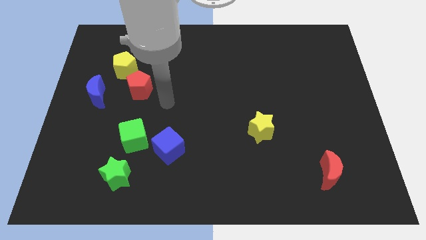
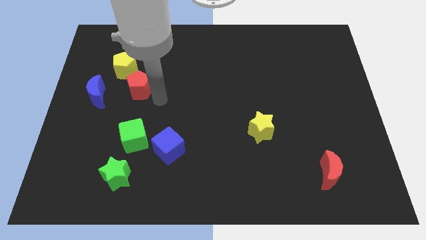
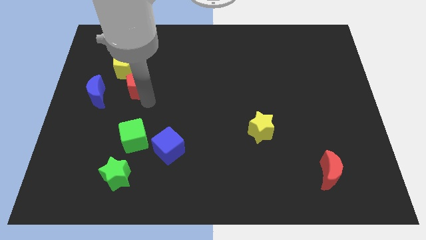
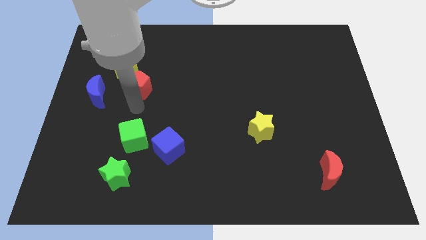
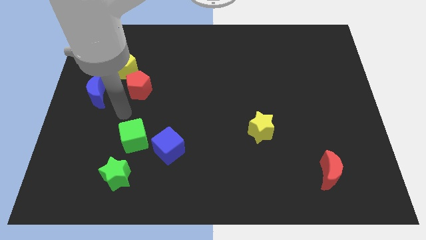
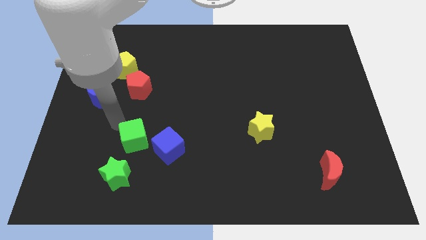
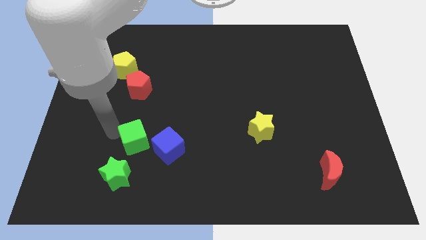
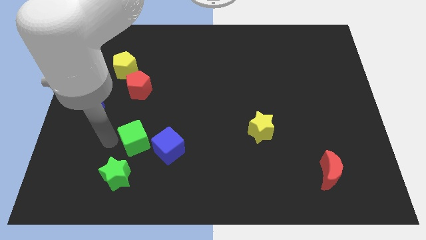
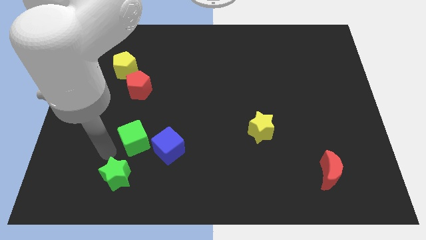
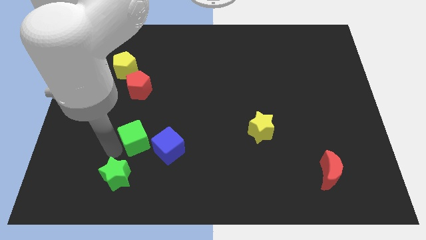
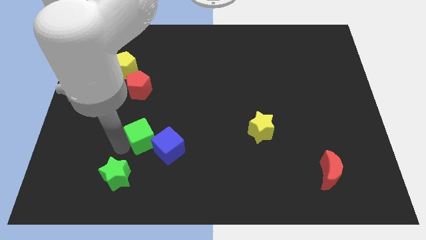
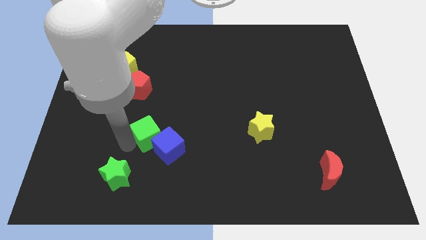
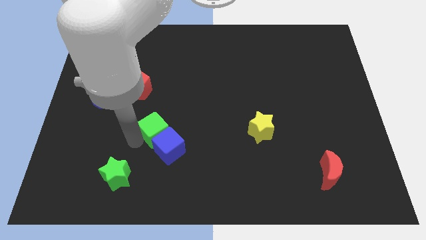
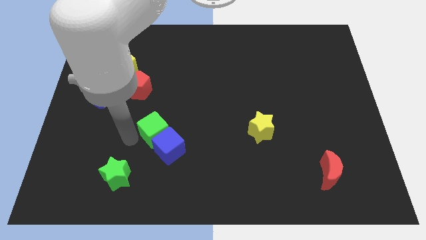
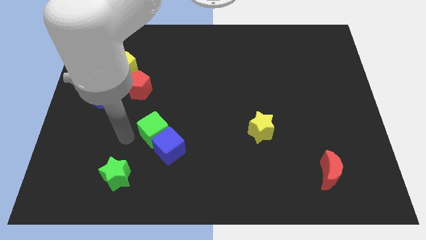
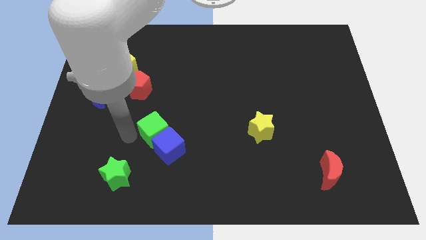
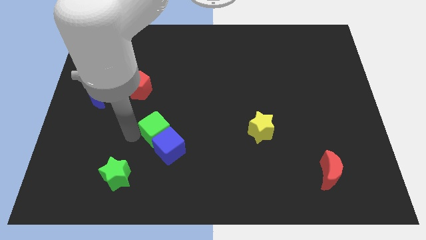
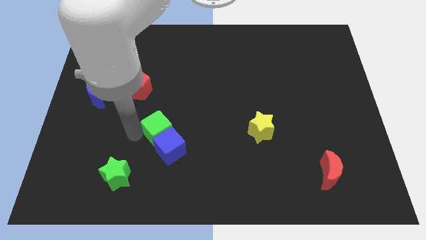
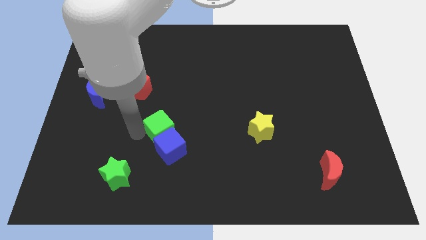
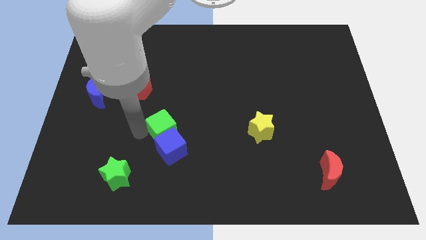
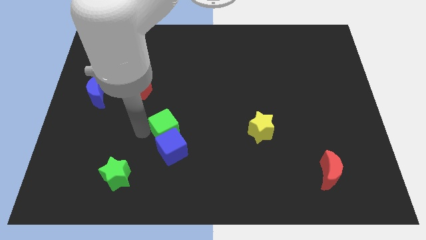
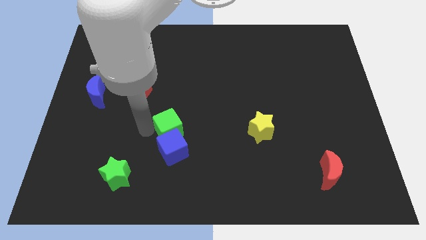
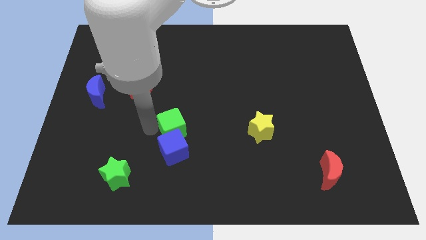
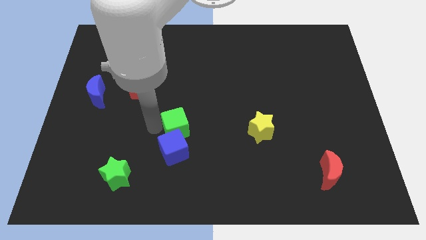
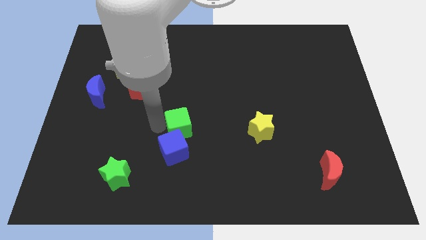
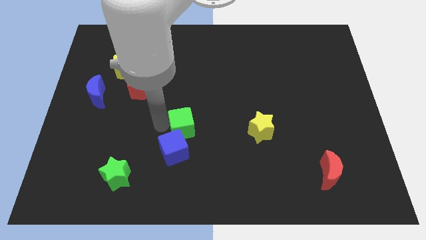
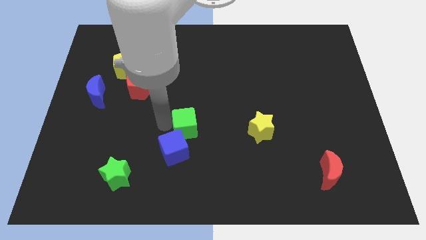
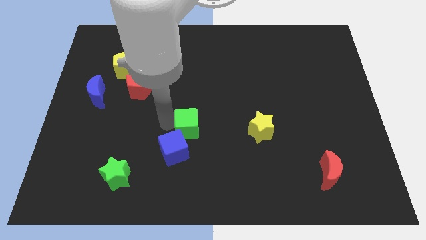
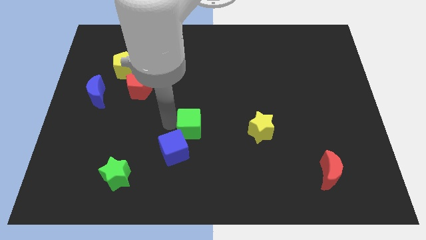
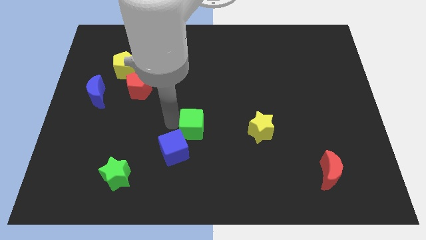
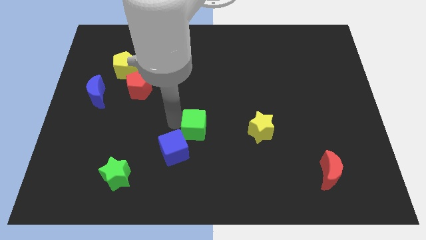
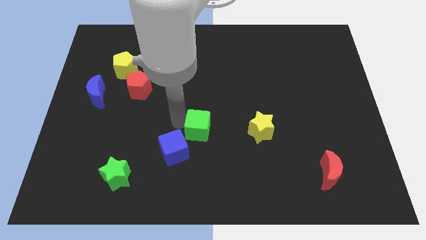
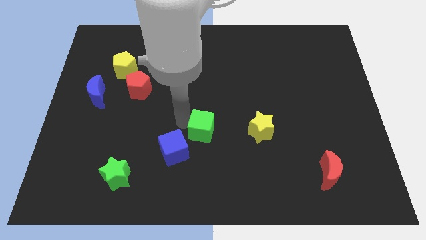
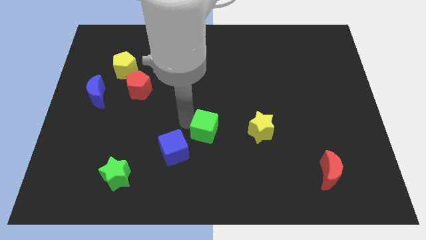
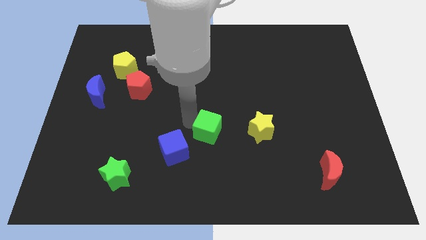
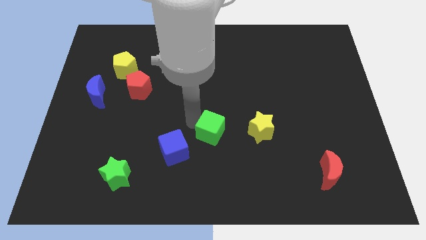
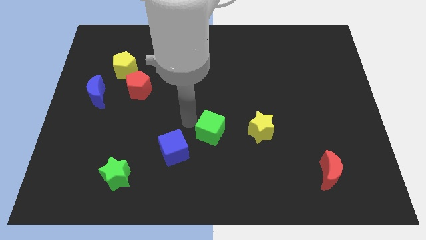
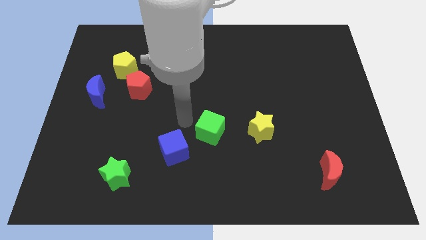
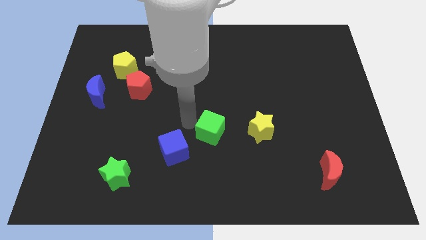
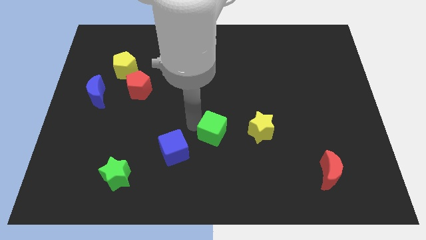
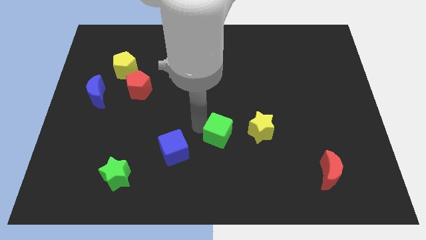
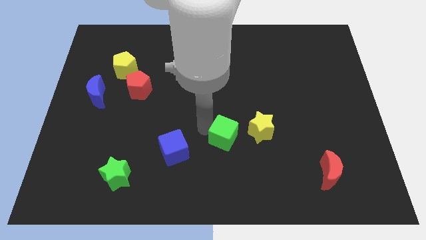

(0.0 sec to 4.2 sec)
move the green cube right

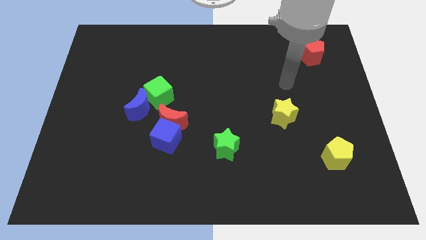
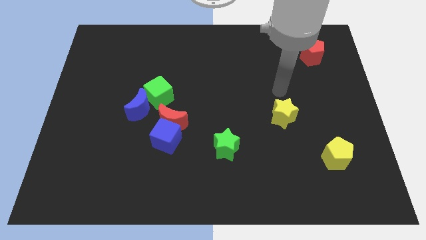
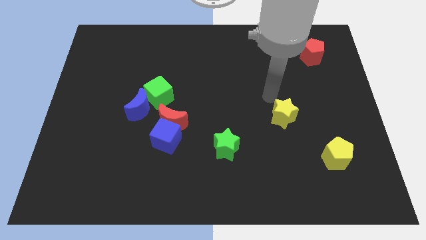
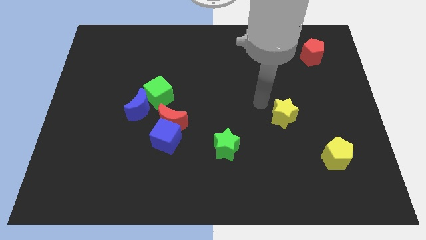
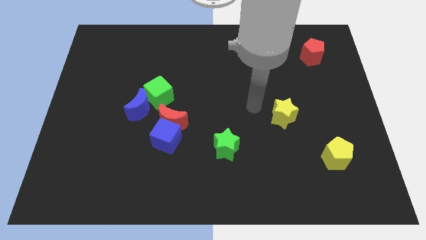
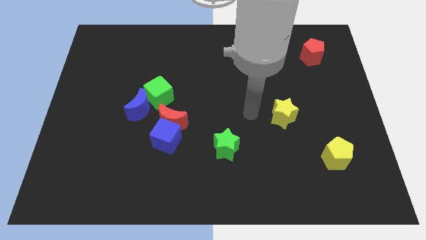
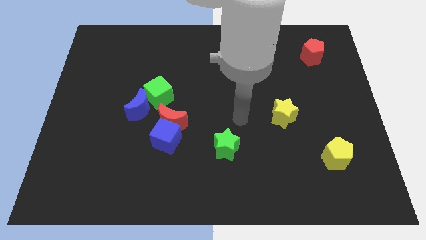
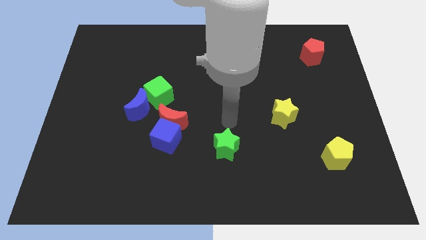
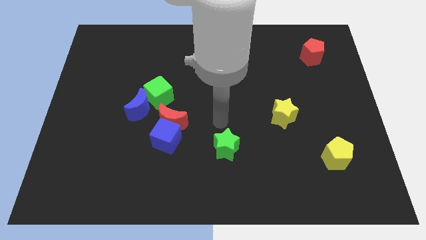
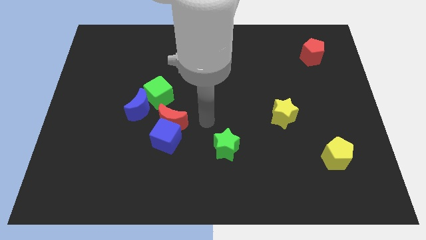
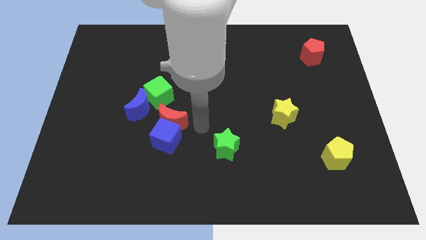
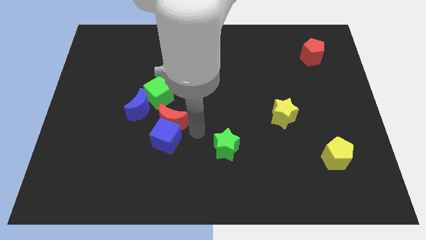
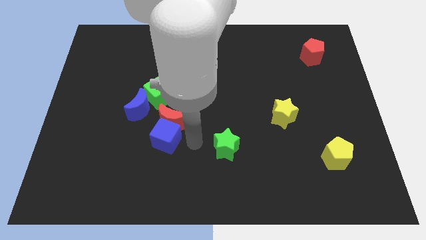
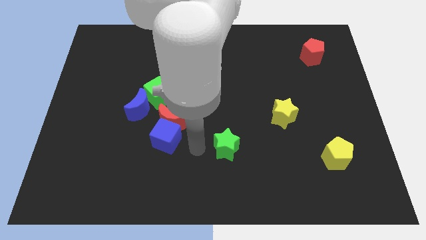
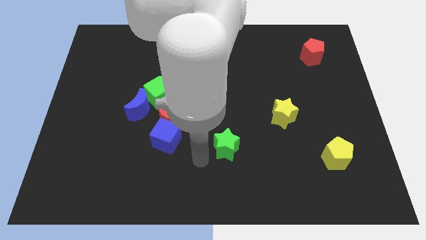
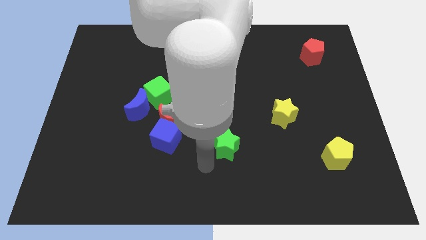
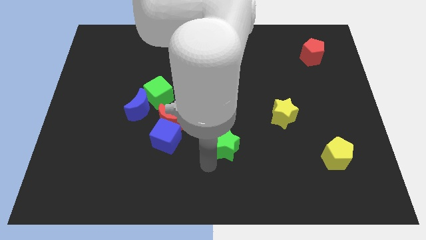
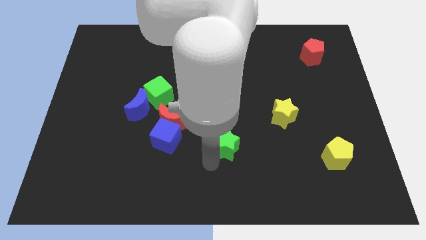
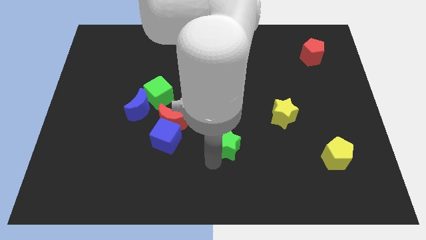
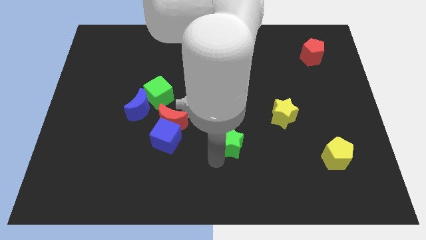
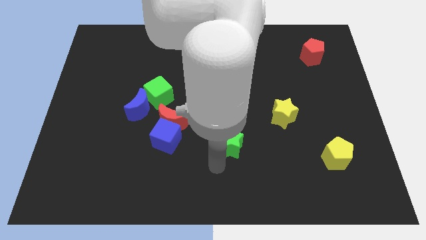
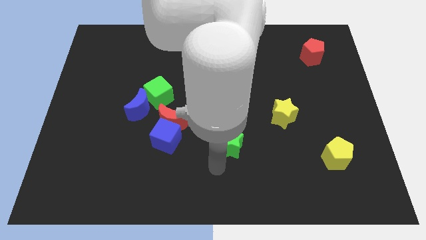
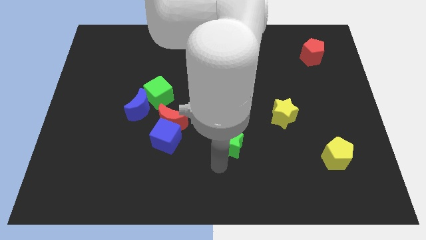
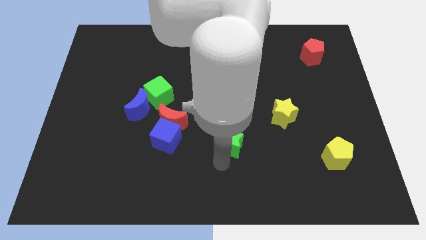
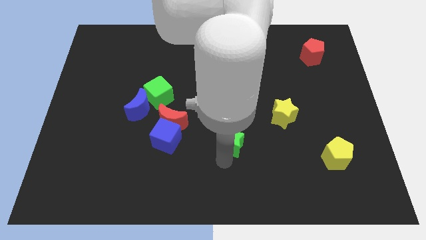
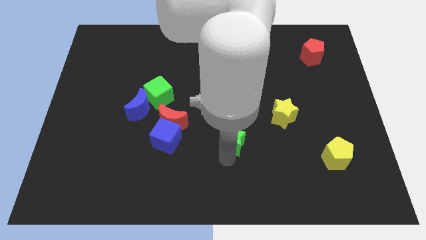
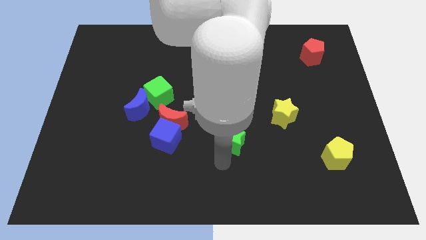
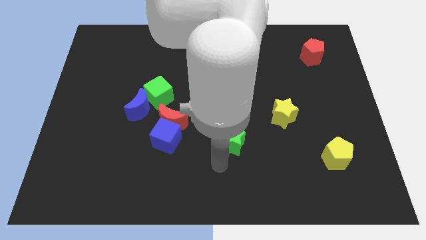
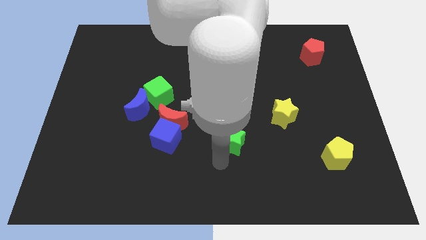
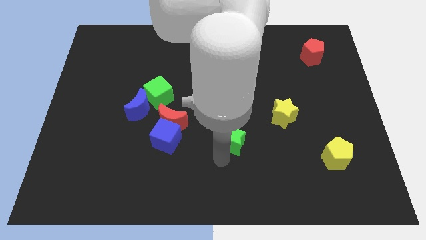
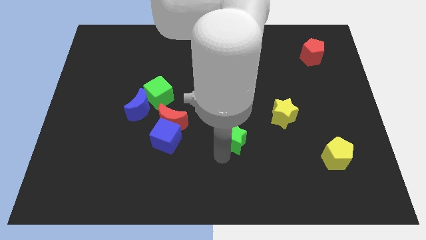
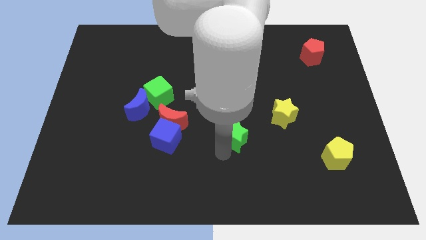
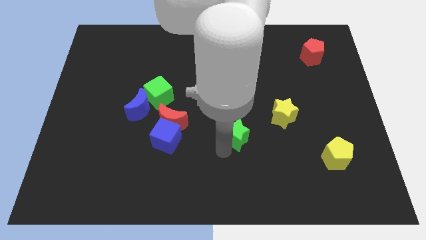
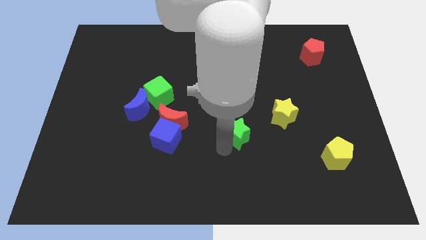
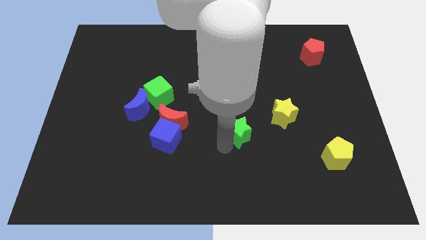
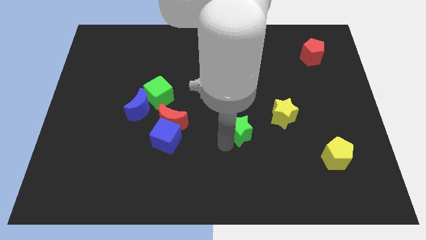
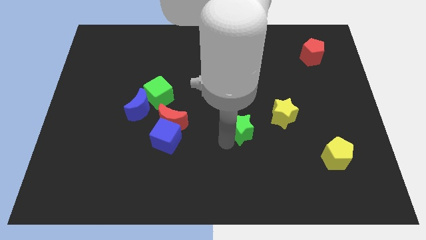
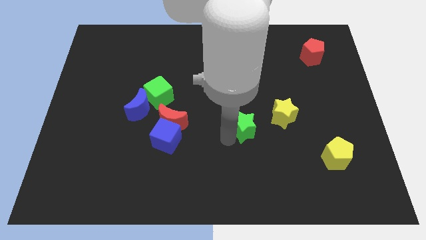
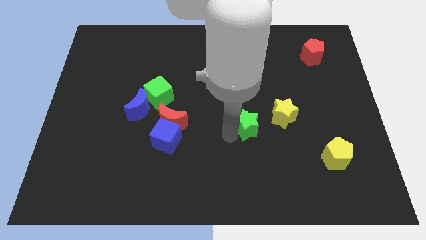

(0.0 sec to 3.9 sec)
move the green star up and to the right diagonally a little bit

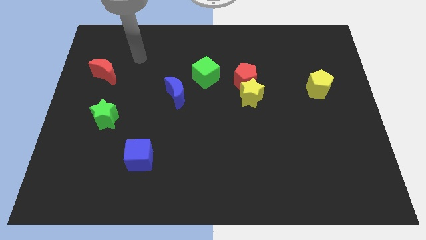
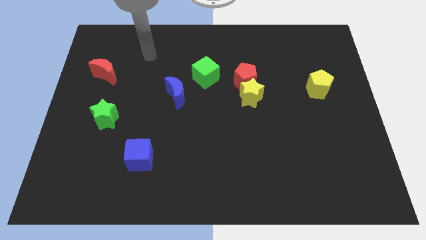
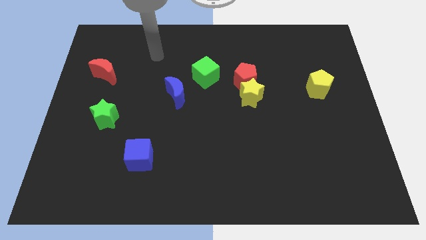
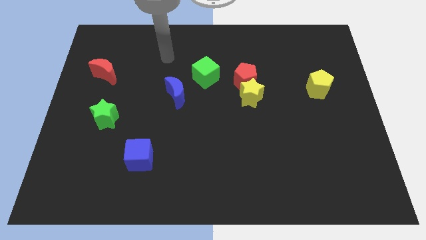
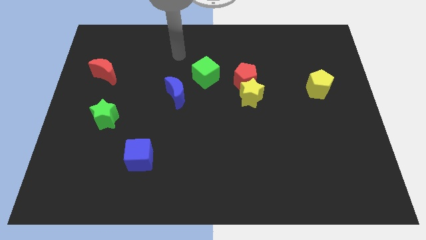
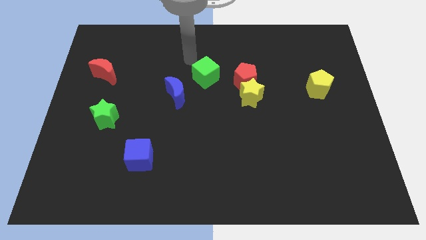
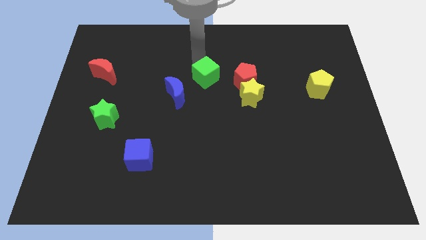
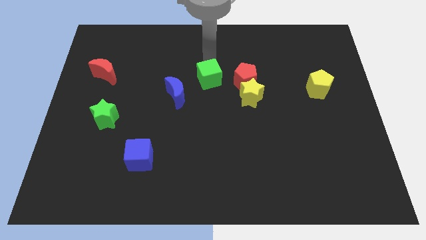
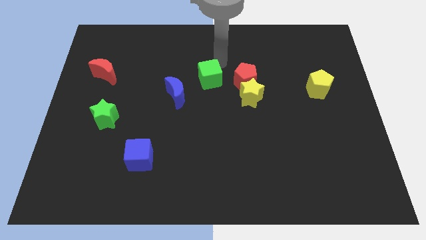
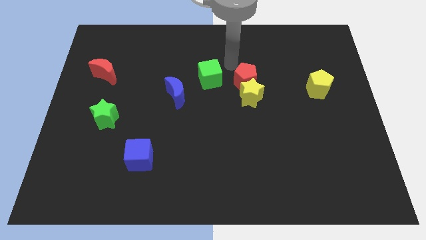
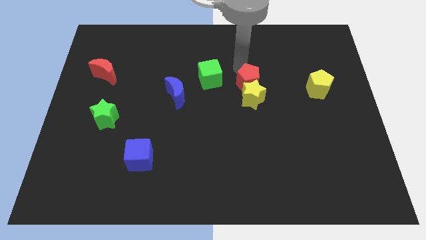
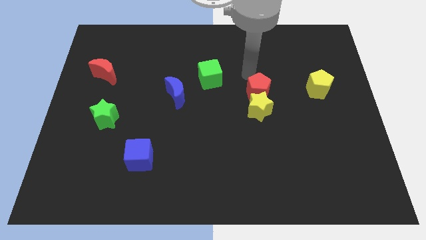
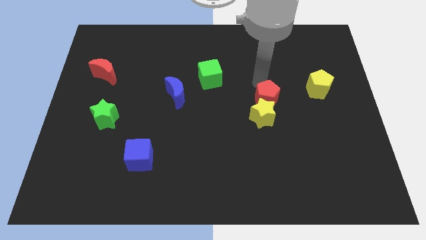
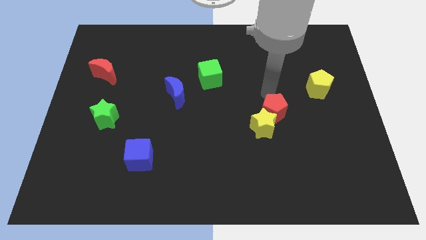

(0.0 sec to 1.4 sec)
move the yellow star downwards a little
